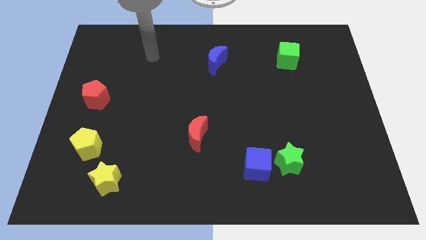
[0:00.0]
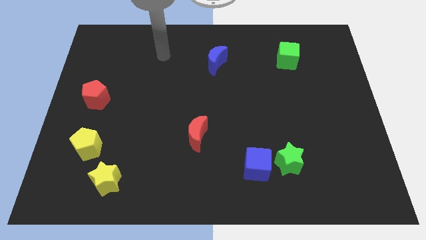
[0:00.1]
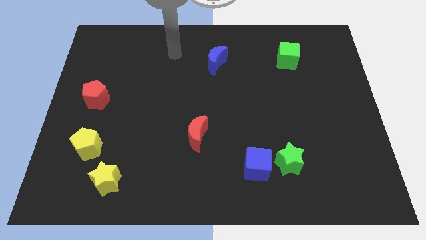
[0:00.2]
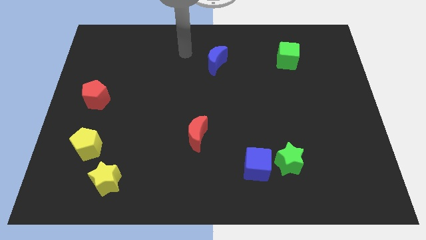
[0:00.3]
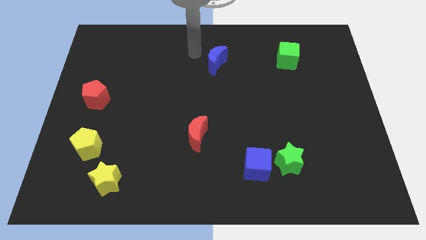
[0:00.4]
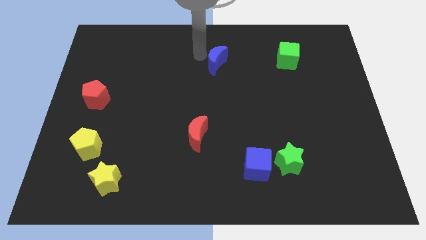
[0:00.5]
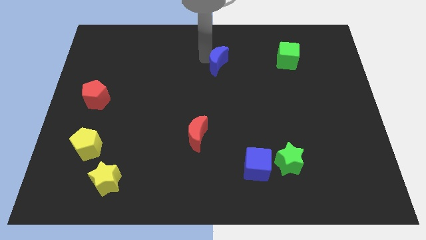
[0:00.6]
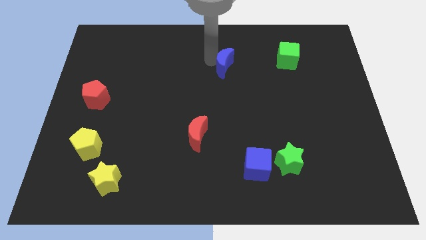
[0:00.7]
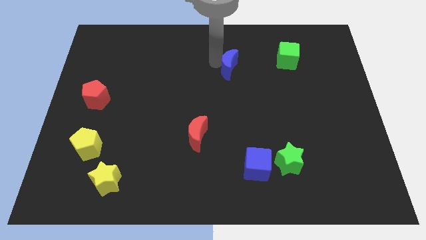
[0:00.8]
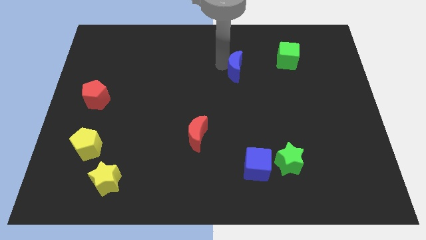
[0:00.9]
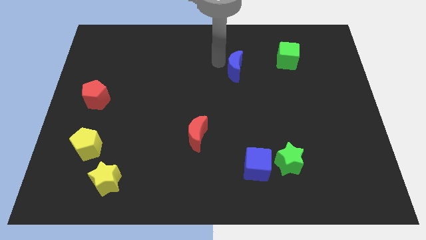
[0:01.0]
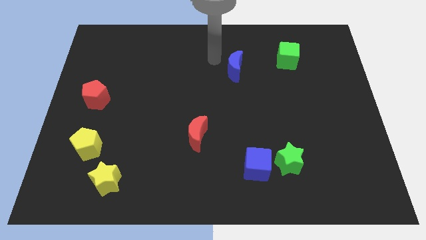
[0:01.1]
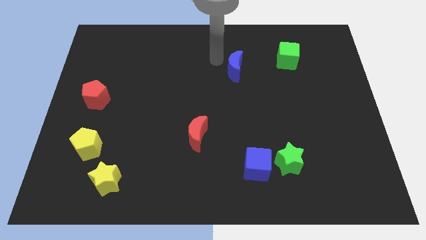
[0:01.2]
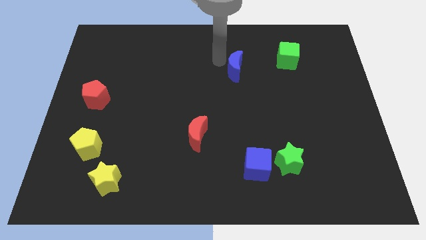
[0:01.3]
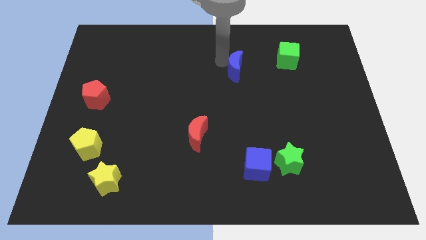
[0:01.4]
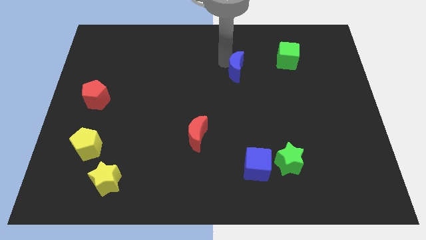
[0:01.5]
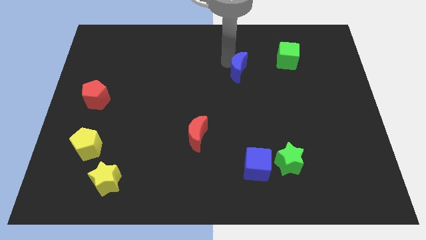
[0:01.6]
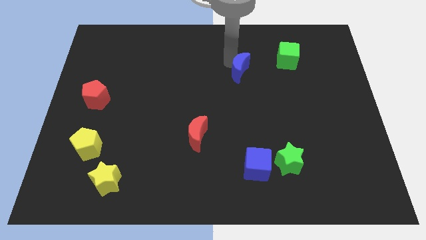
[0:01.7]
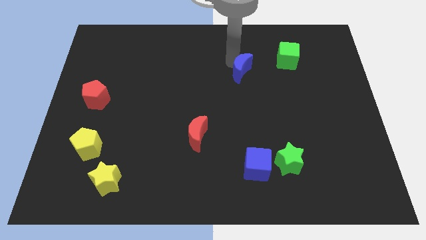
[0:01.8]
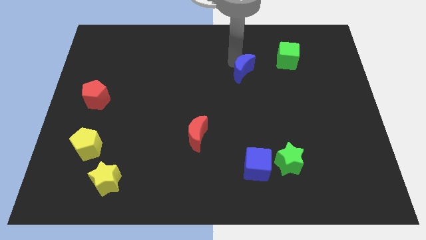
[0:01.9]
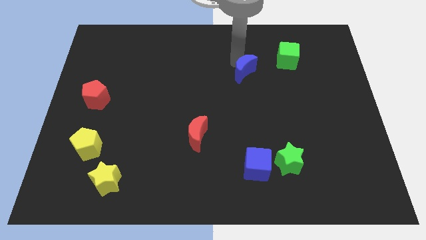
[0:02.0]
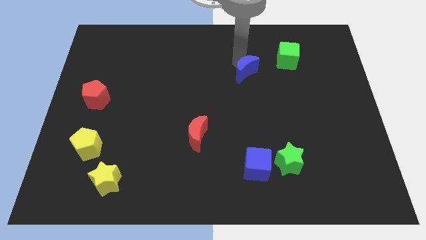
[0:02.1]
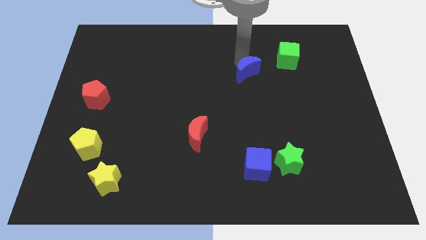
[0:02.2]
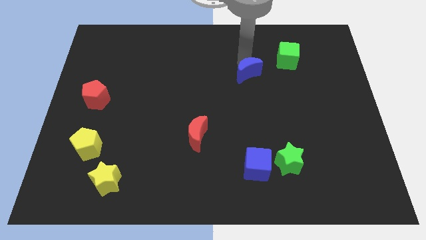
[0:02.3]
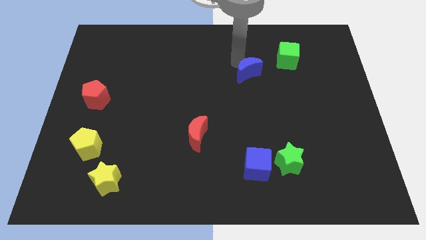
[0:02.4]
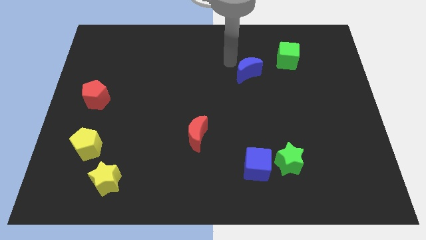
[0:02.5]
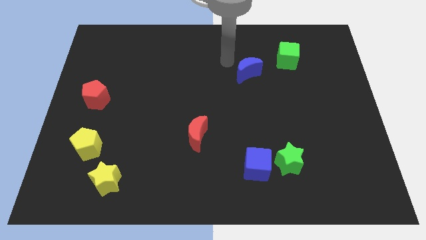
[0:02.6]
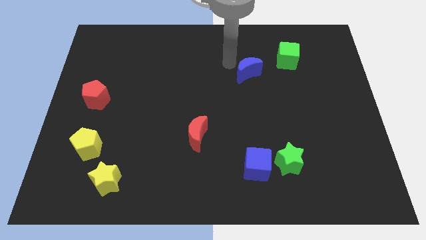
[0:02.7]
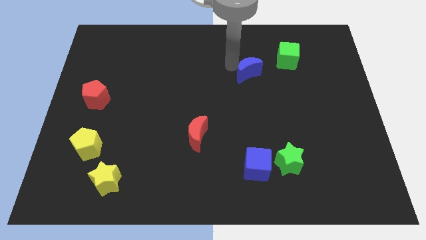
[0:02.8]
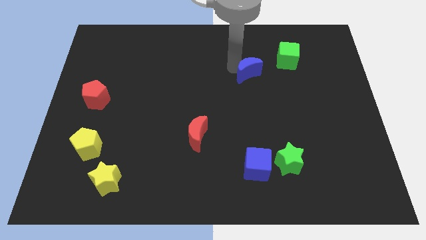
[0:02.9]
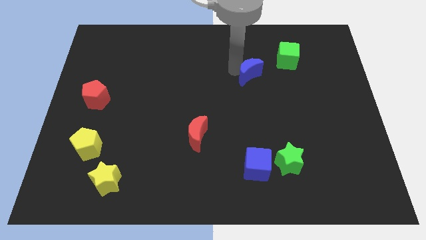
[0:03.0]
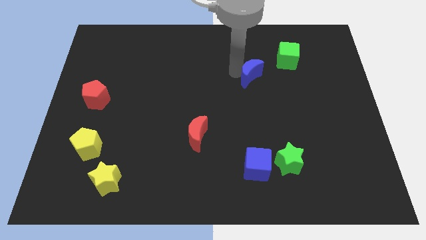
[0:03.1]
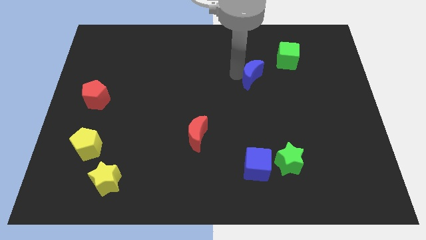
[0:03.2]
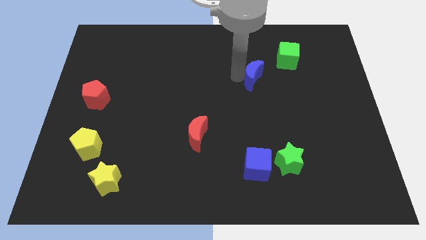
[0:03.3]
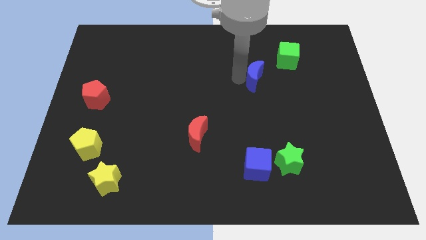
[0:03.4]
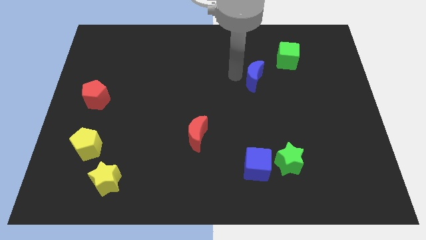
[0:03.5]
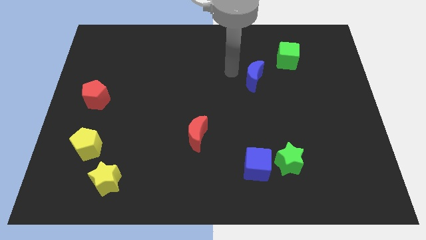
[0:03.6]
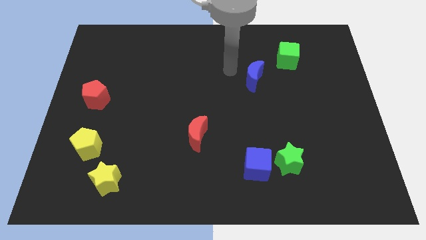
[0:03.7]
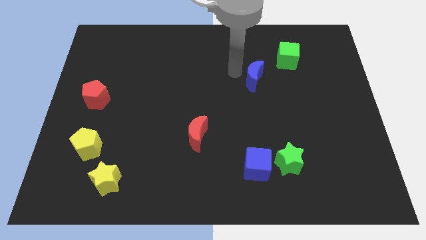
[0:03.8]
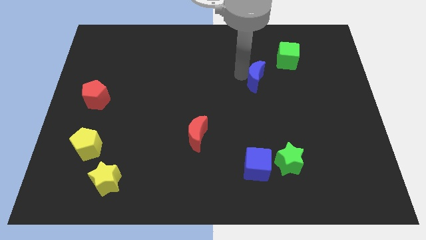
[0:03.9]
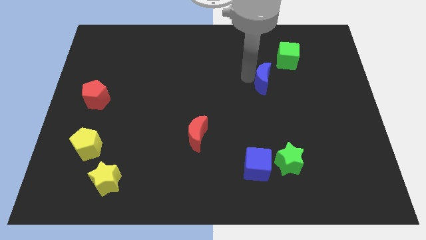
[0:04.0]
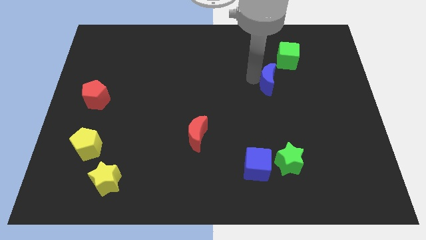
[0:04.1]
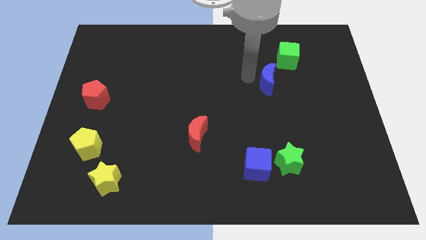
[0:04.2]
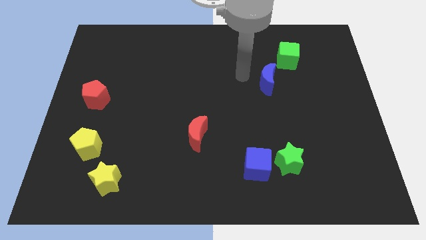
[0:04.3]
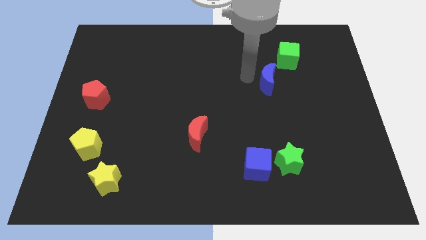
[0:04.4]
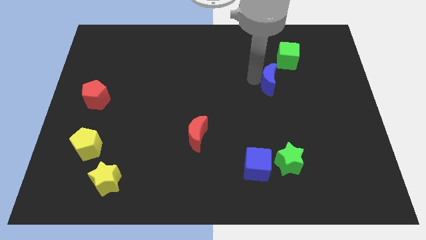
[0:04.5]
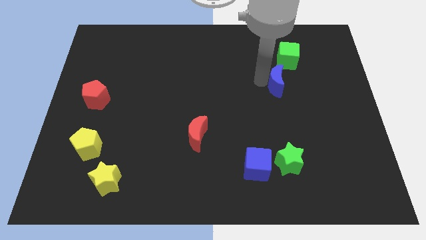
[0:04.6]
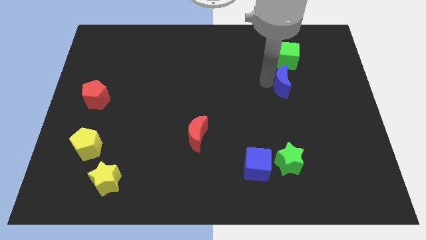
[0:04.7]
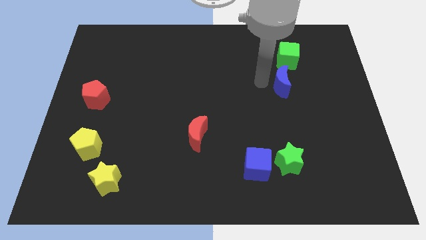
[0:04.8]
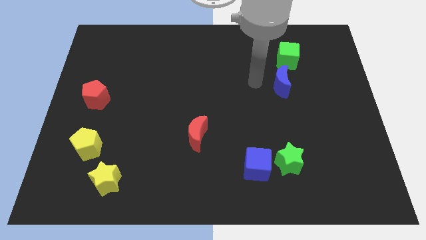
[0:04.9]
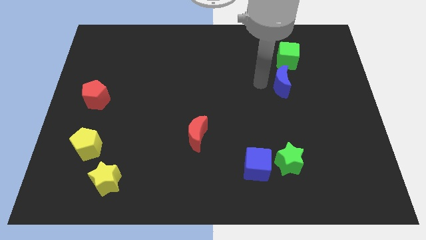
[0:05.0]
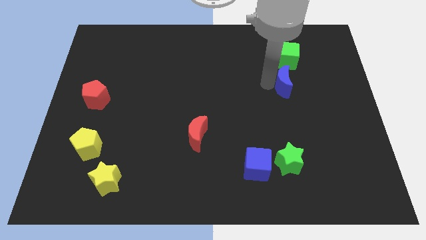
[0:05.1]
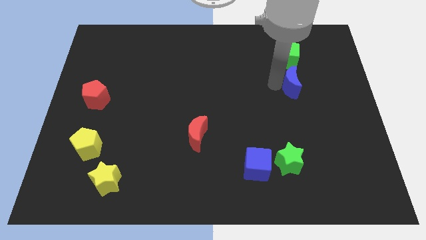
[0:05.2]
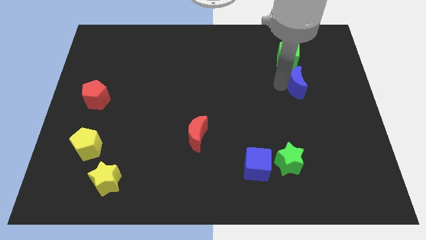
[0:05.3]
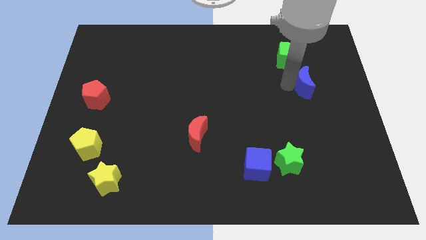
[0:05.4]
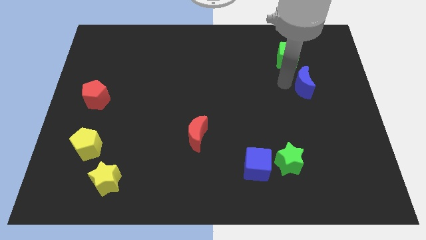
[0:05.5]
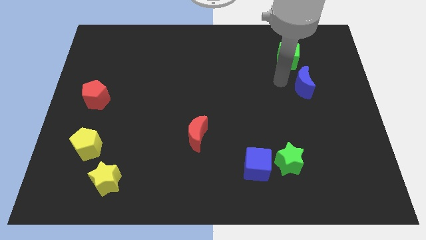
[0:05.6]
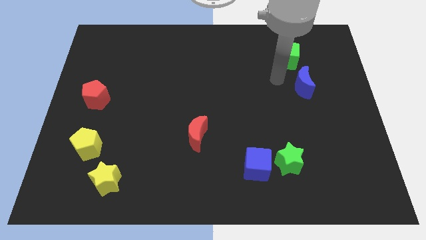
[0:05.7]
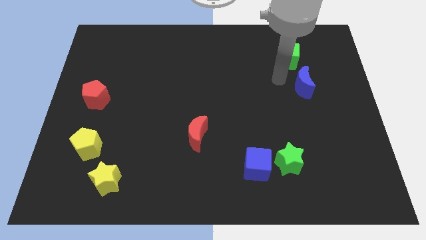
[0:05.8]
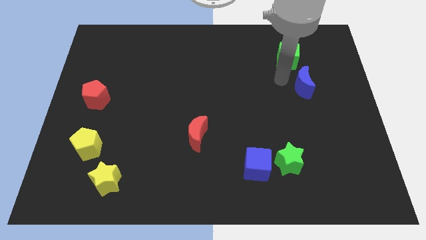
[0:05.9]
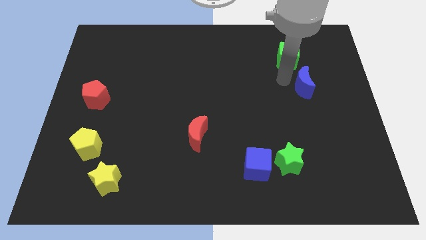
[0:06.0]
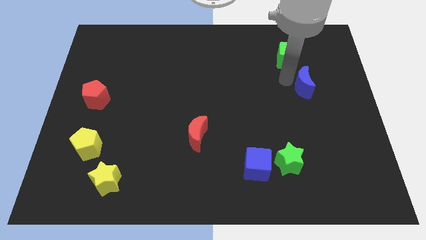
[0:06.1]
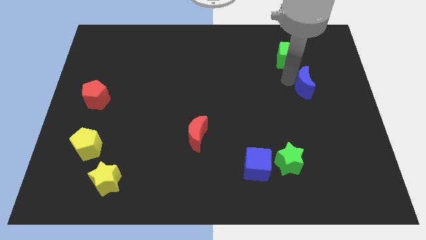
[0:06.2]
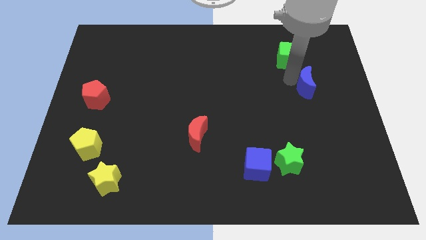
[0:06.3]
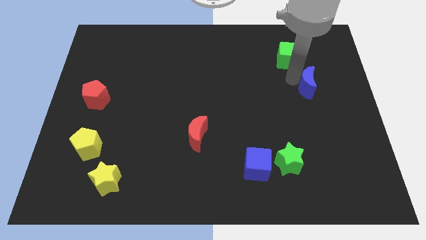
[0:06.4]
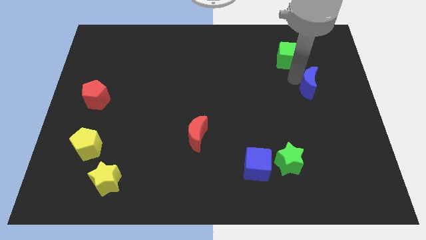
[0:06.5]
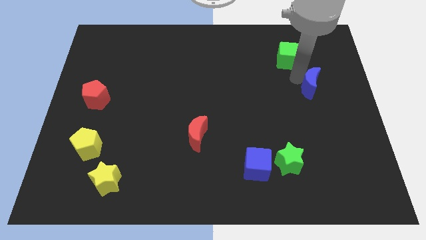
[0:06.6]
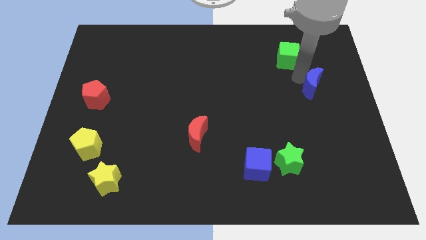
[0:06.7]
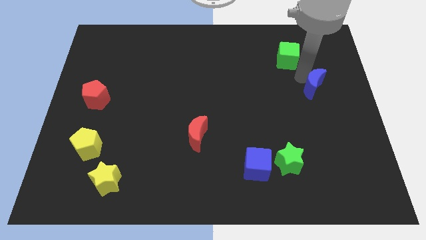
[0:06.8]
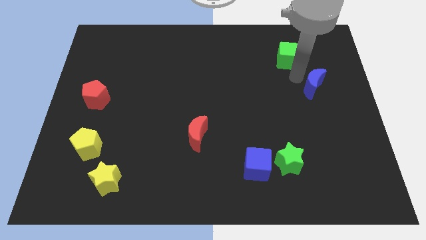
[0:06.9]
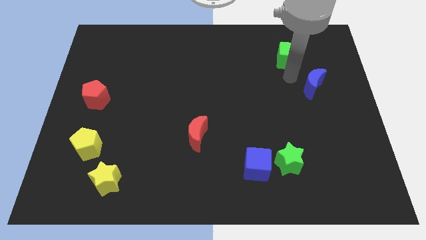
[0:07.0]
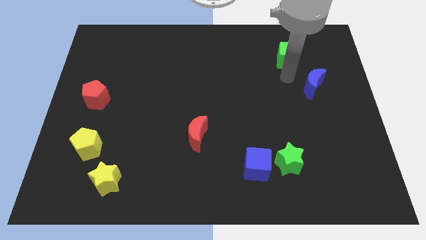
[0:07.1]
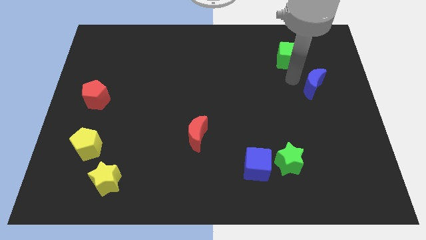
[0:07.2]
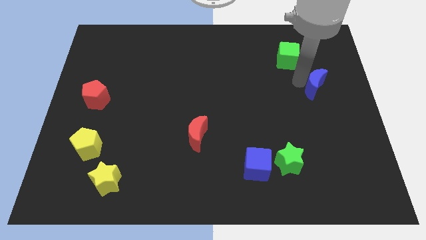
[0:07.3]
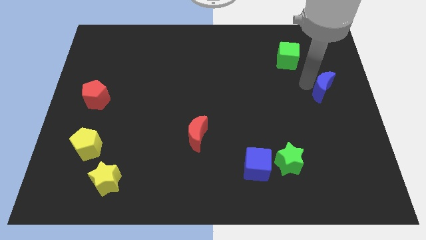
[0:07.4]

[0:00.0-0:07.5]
push the blue moon to the center right
